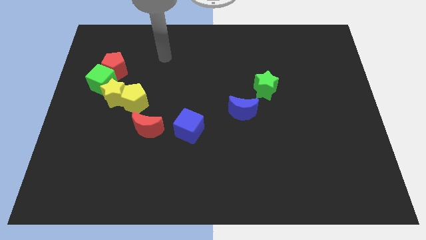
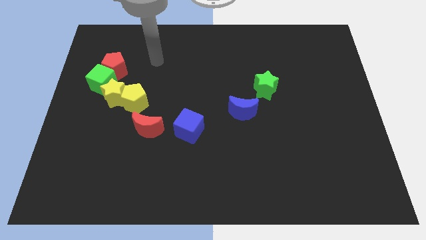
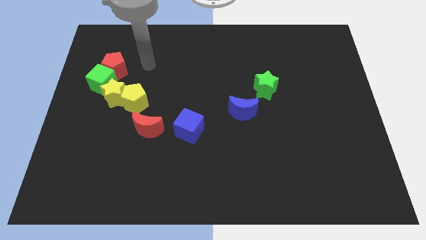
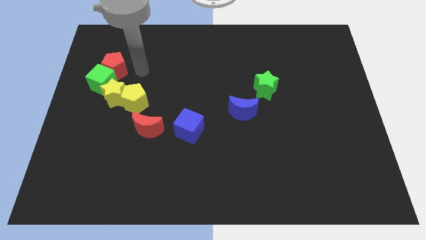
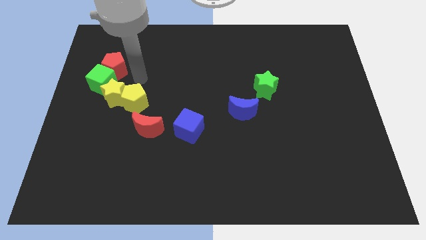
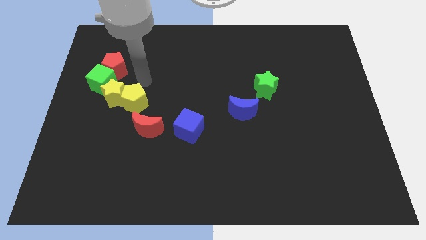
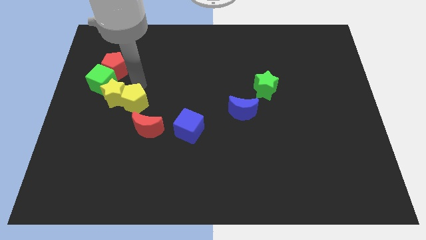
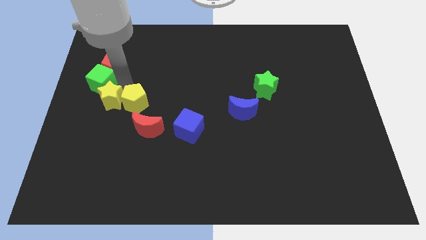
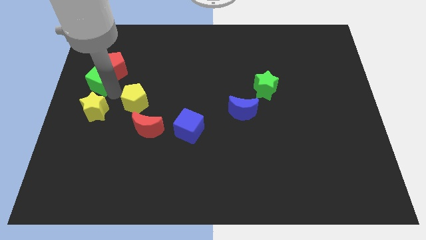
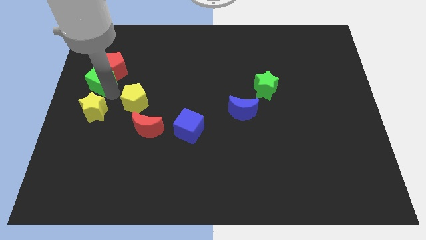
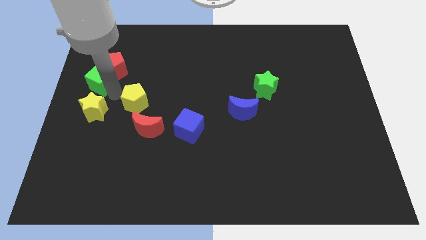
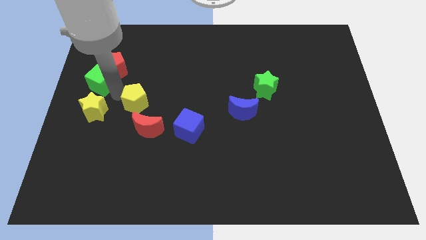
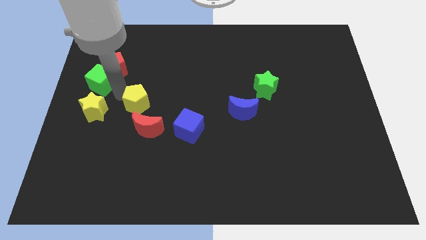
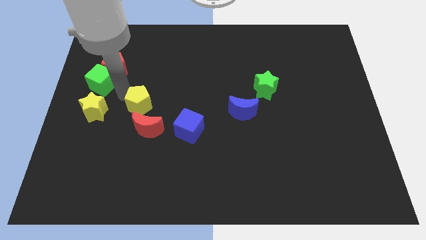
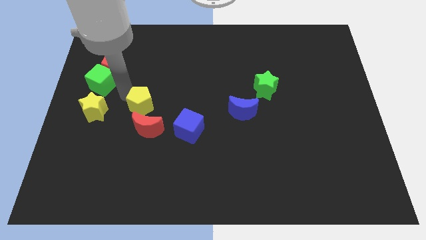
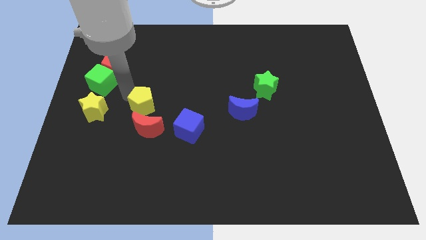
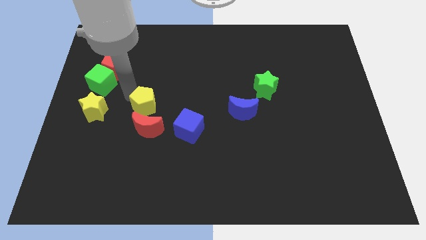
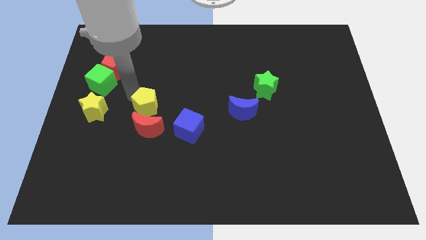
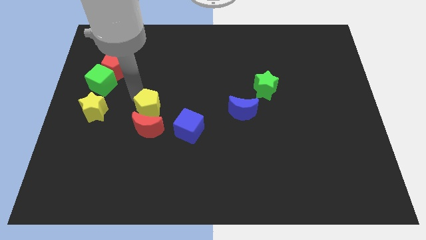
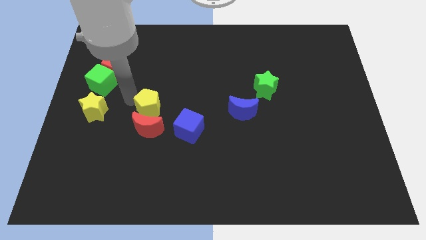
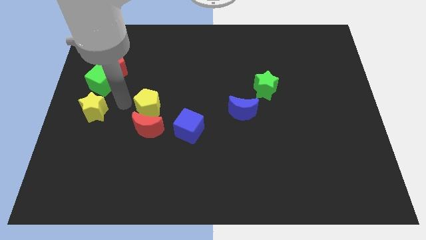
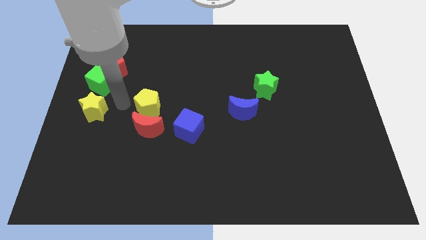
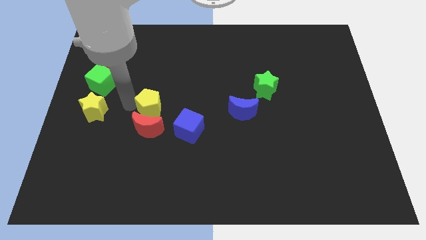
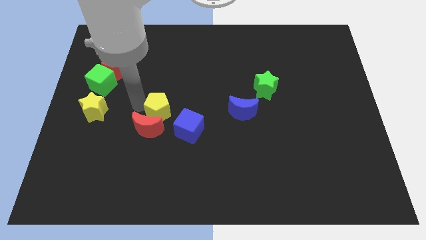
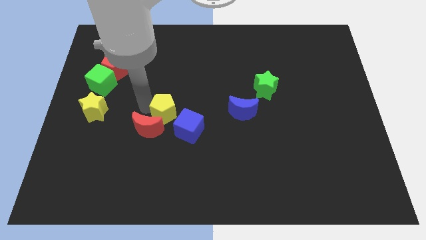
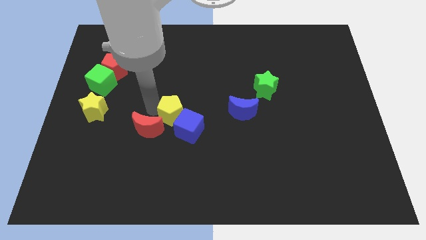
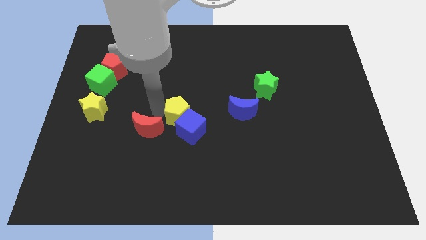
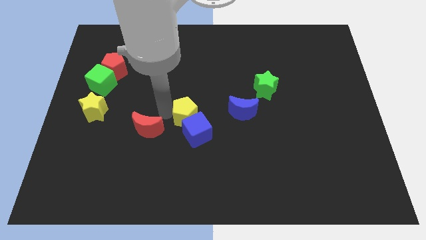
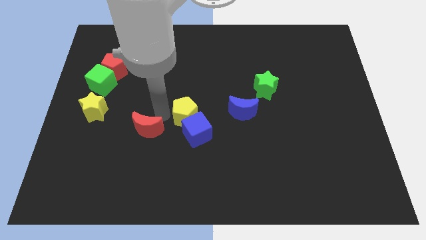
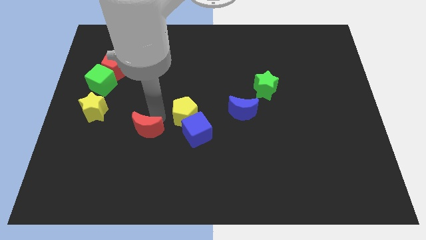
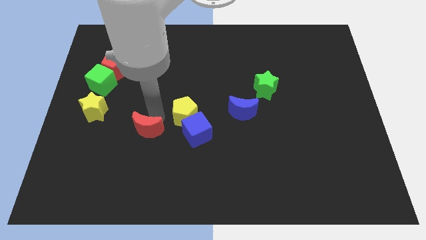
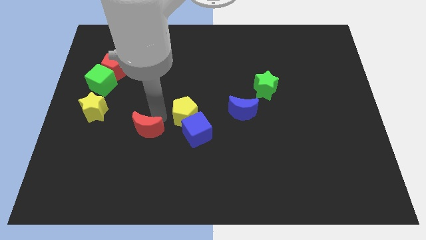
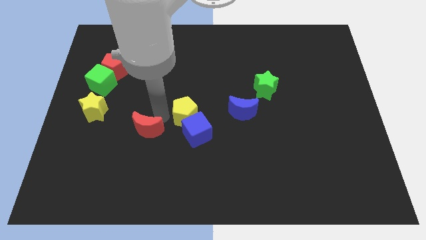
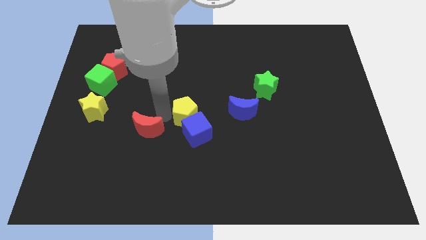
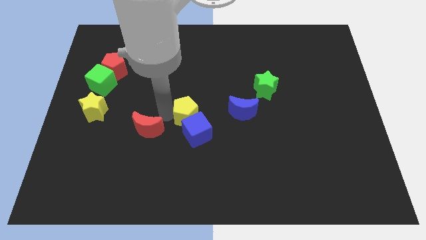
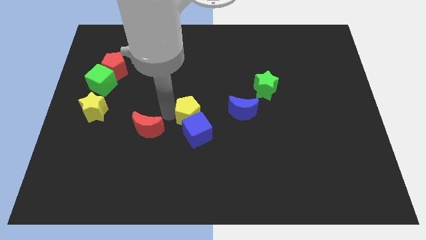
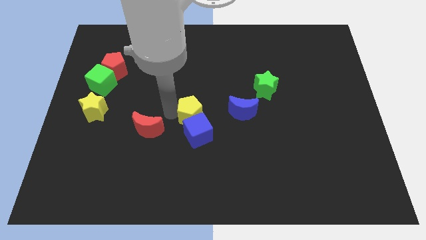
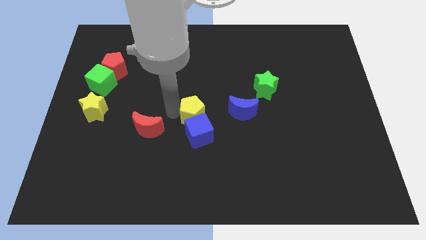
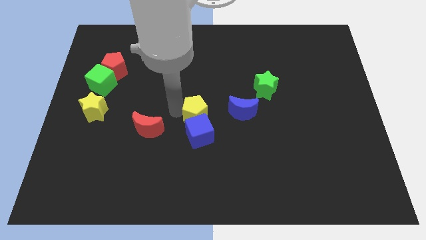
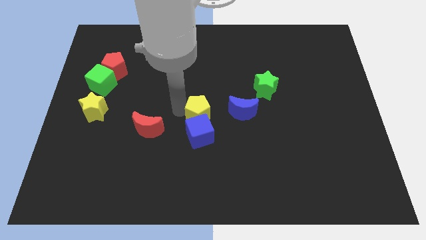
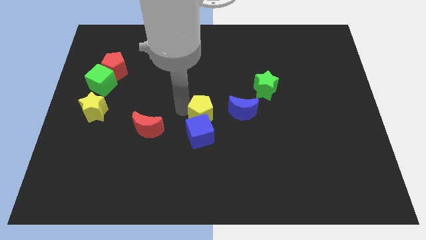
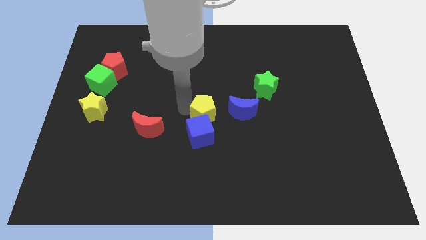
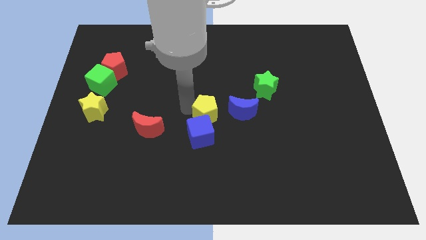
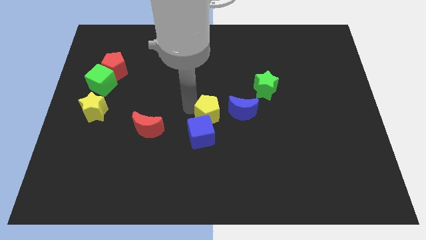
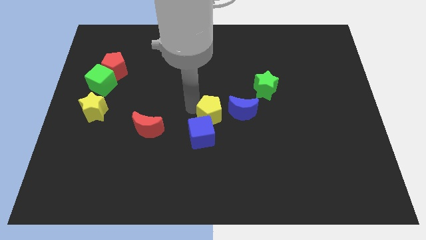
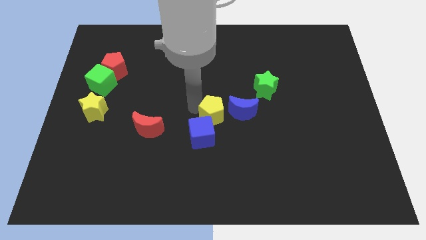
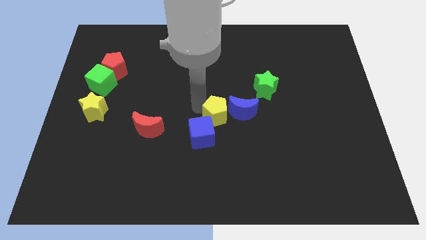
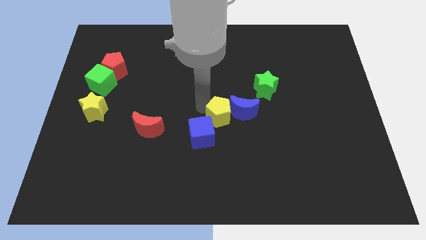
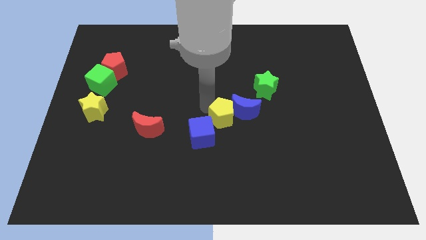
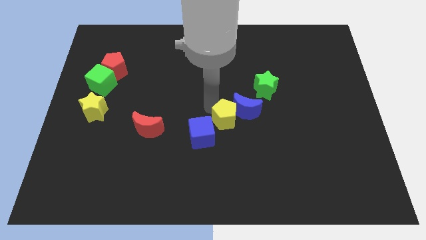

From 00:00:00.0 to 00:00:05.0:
put the yellow pentagon just right of the blue cube

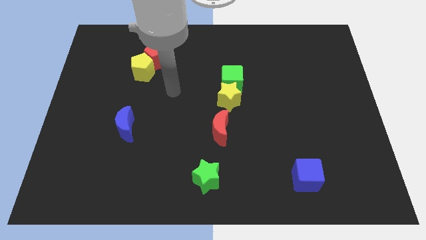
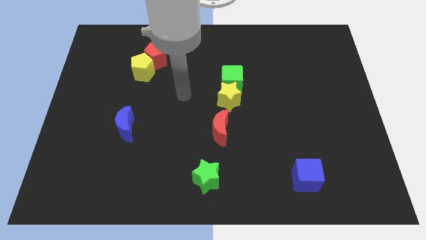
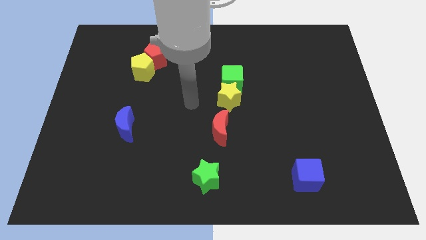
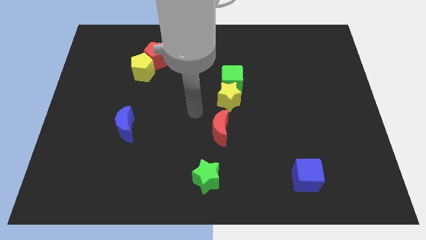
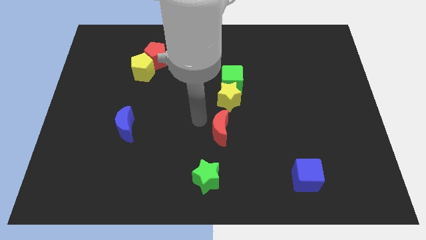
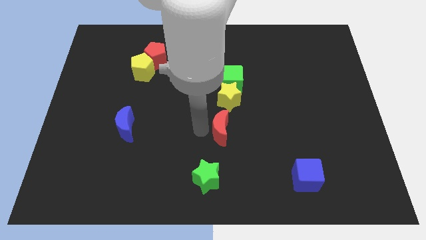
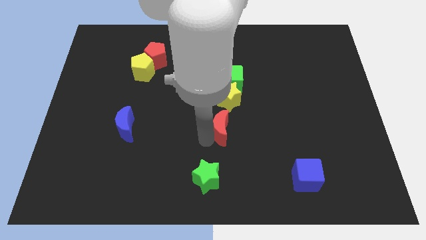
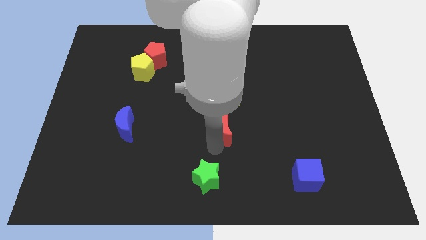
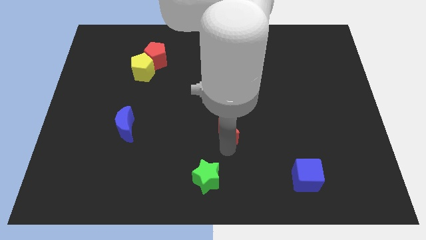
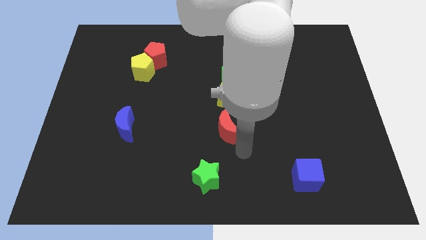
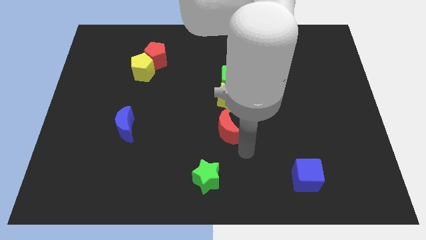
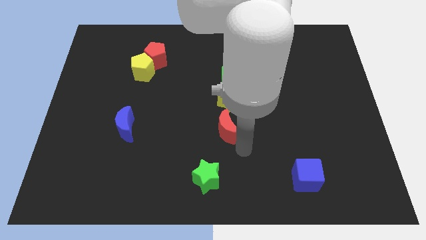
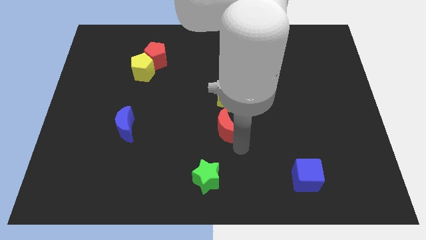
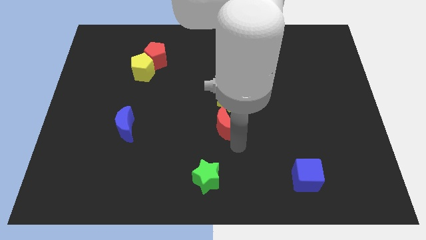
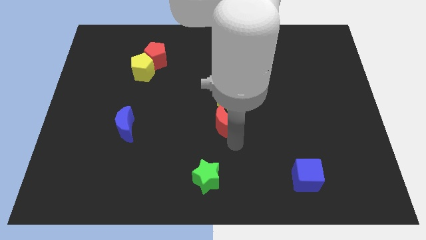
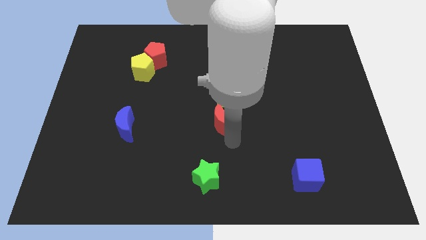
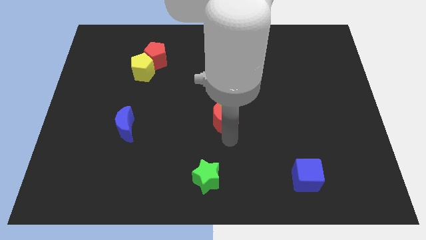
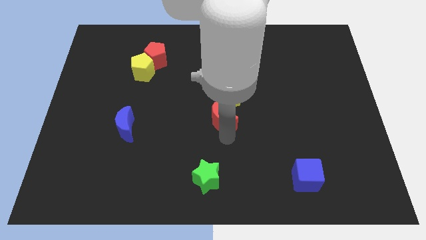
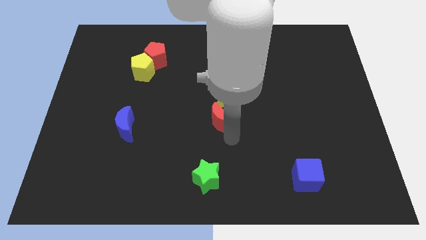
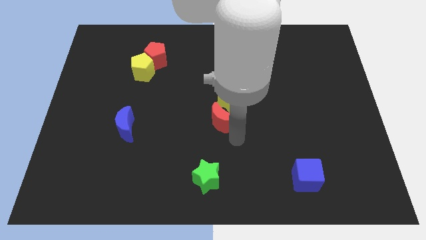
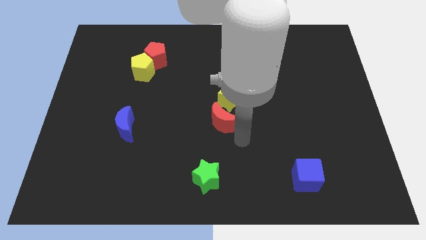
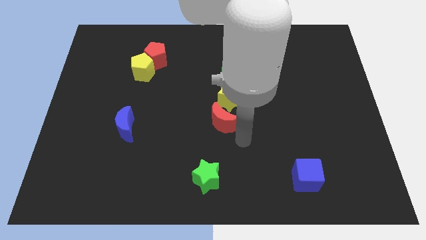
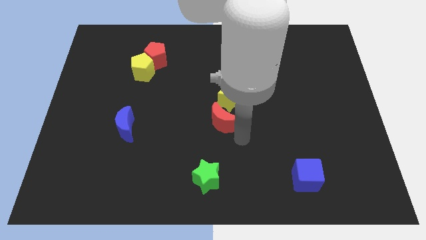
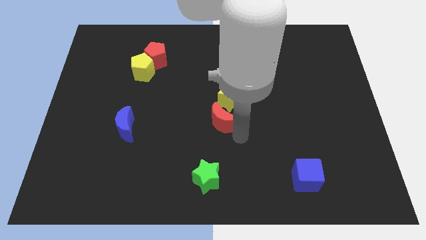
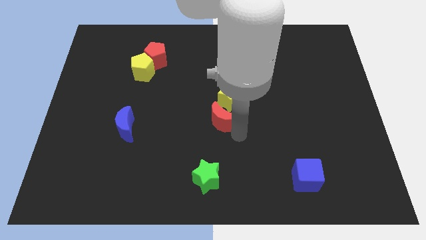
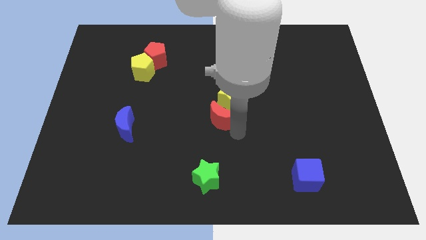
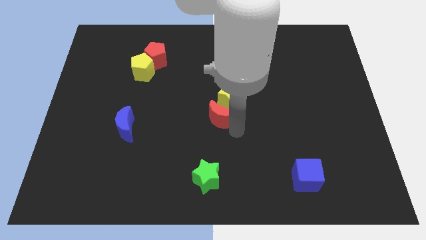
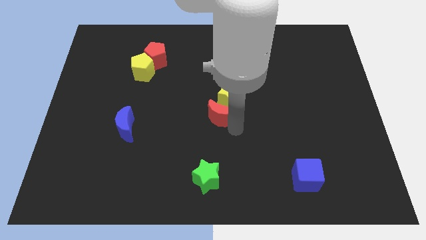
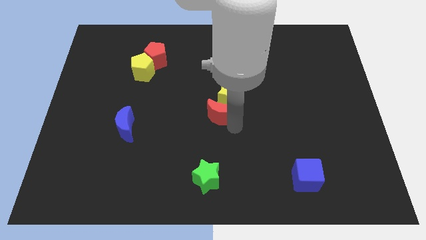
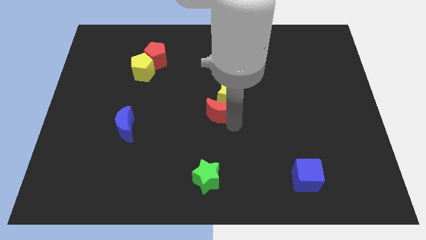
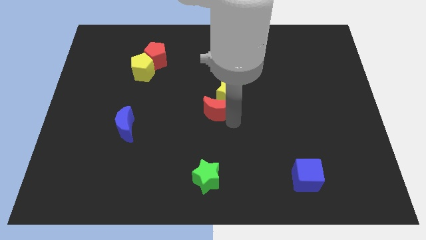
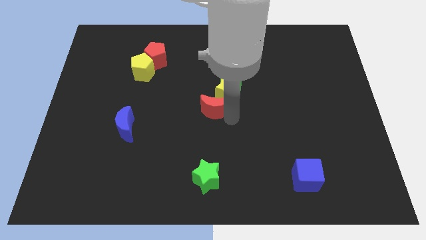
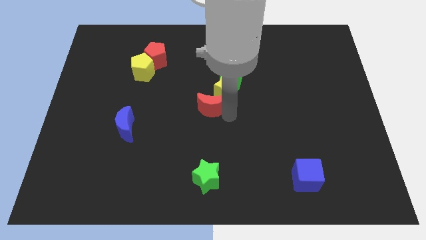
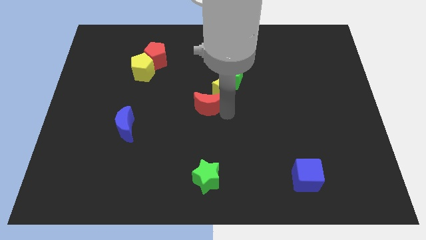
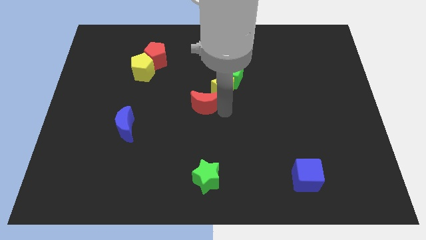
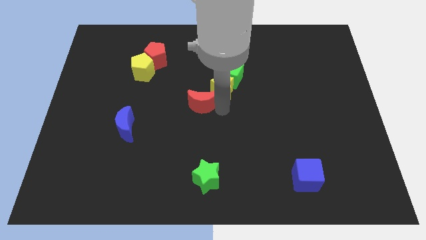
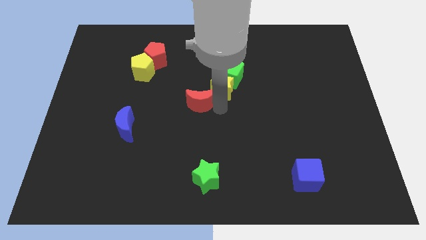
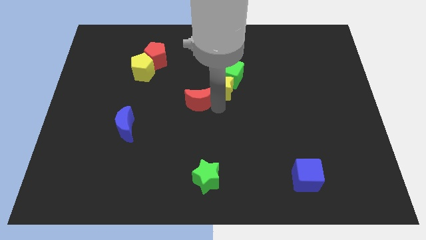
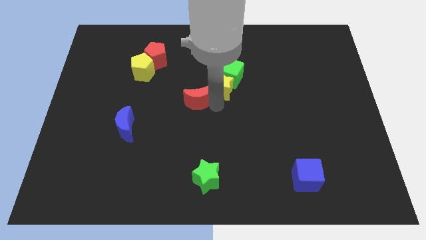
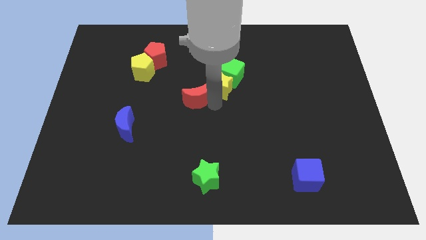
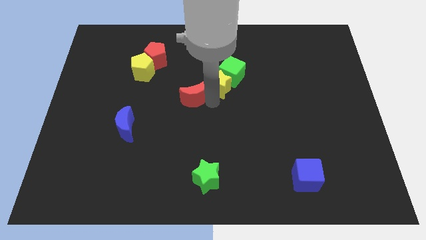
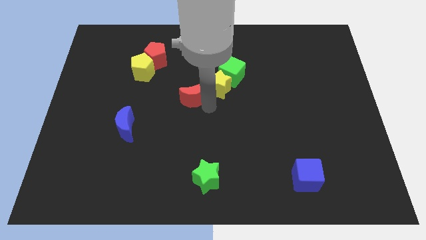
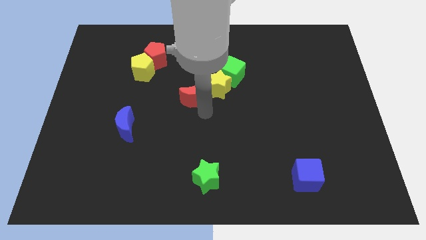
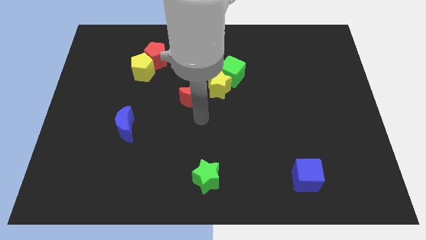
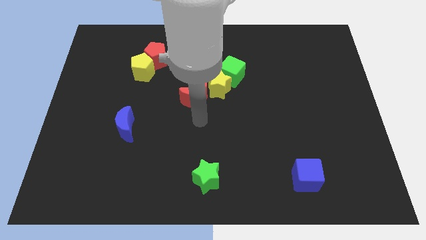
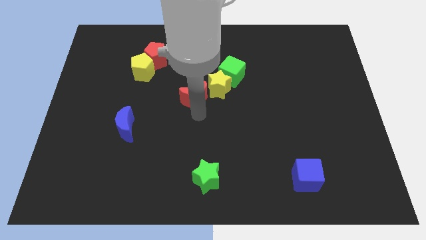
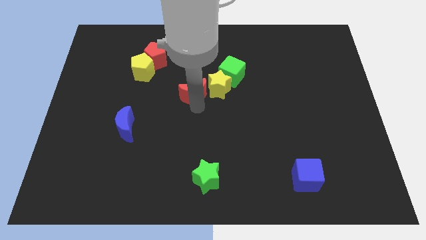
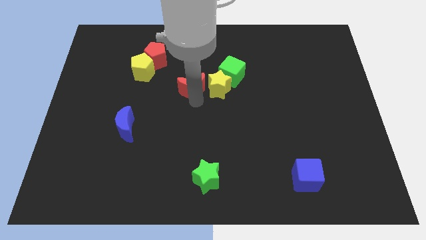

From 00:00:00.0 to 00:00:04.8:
push the red moon to the left of the green cube
